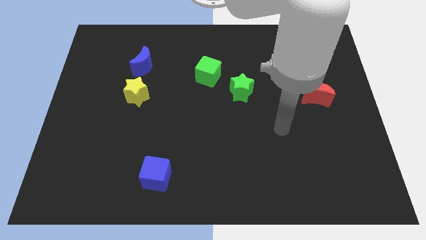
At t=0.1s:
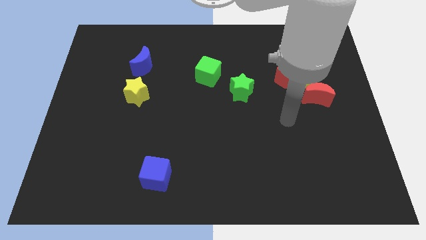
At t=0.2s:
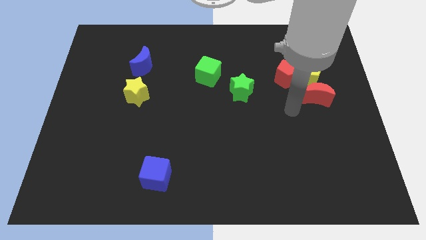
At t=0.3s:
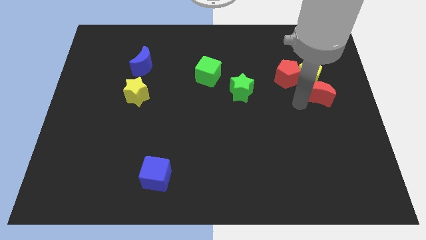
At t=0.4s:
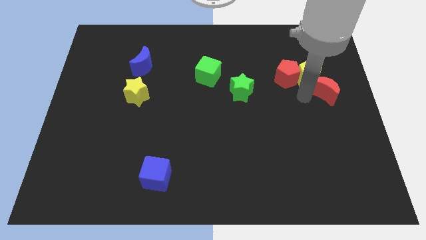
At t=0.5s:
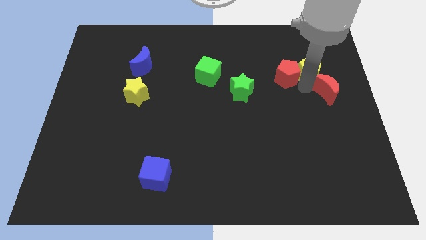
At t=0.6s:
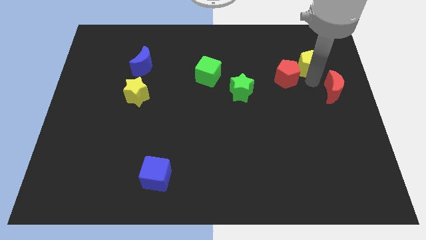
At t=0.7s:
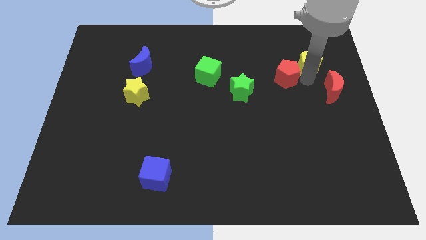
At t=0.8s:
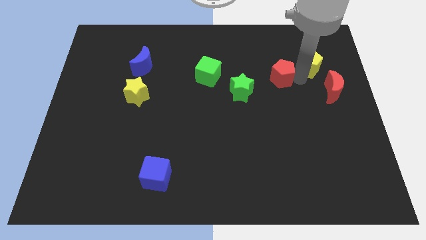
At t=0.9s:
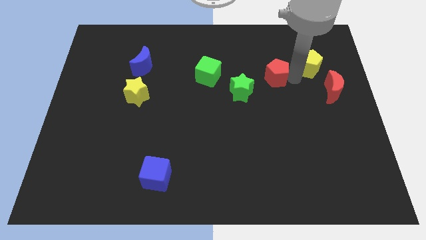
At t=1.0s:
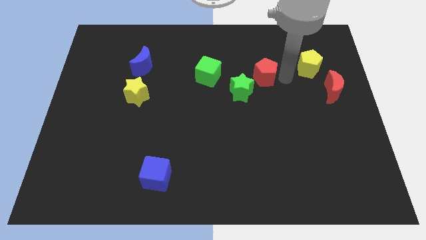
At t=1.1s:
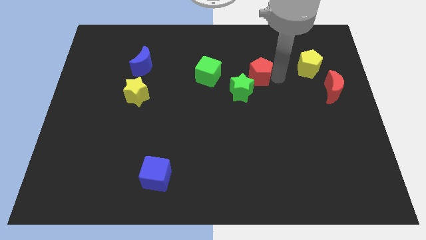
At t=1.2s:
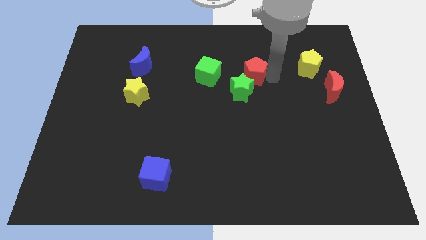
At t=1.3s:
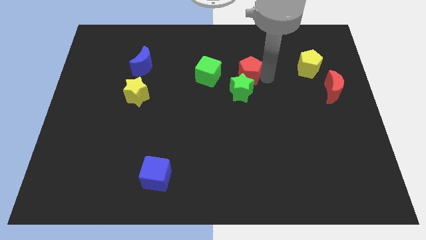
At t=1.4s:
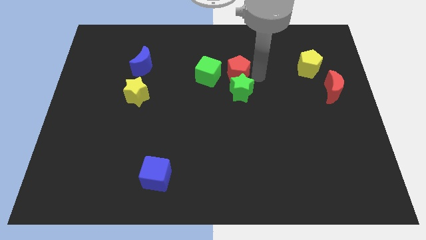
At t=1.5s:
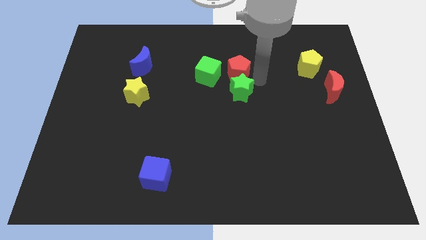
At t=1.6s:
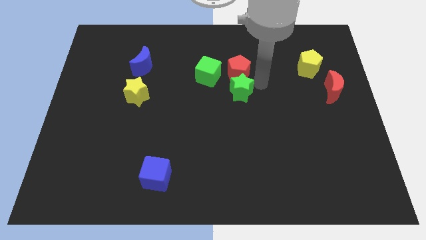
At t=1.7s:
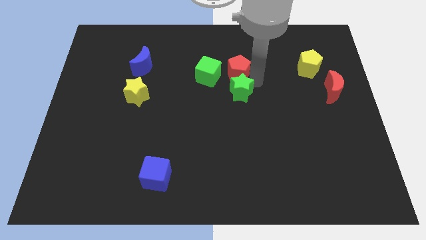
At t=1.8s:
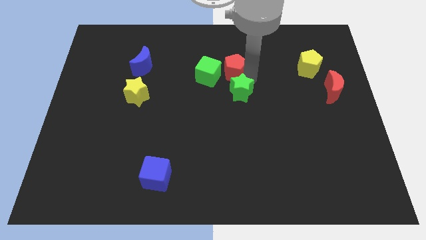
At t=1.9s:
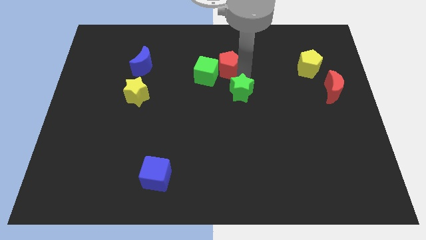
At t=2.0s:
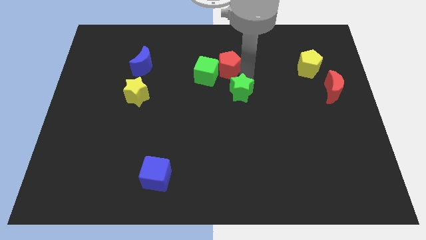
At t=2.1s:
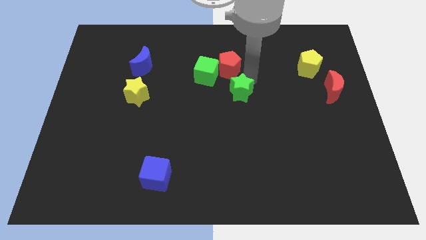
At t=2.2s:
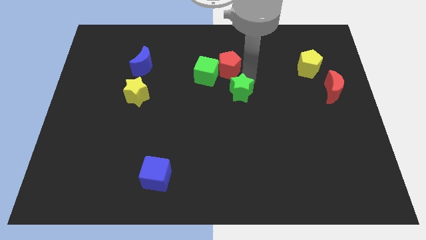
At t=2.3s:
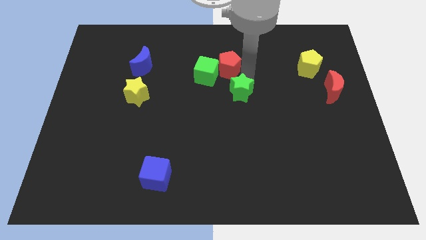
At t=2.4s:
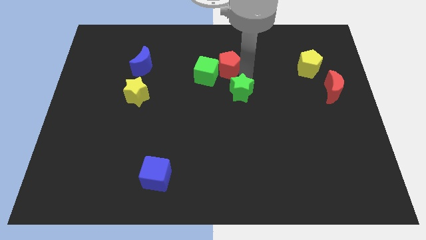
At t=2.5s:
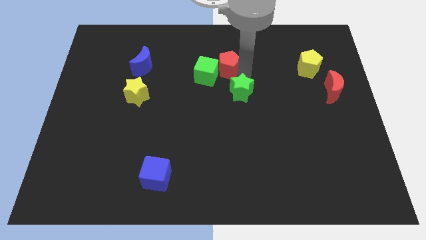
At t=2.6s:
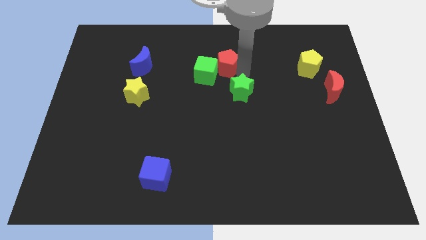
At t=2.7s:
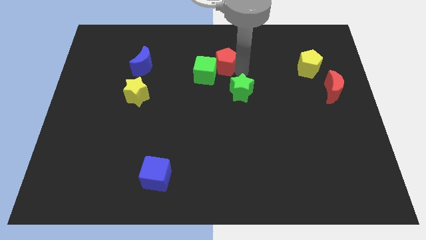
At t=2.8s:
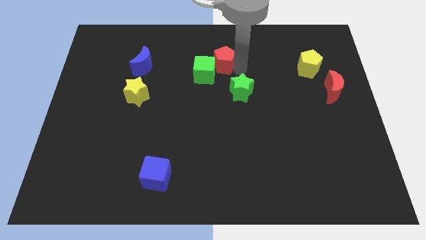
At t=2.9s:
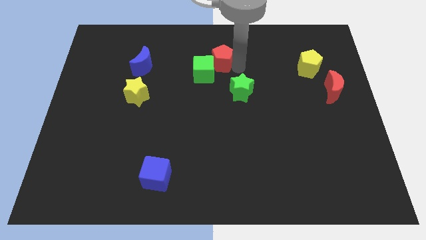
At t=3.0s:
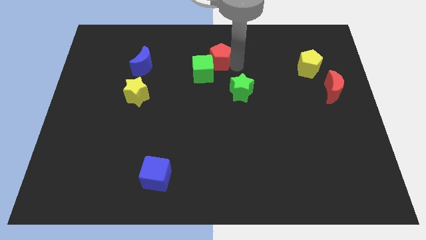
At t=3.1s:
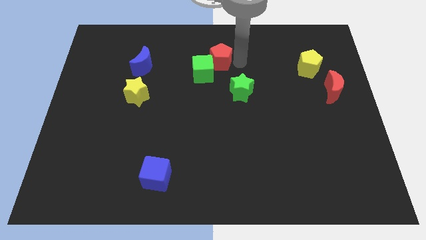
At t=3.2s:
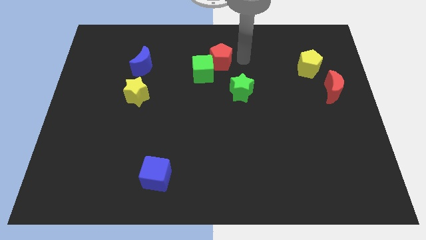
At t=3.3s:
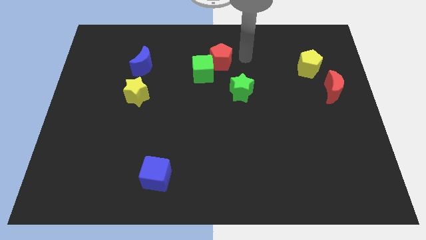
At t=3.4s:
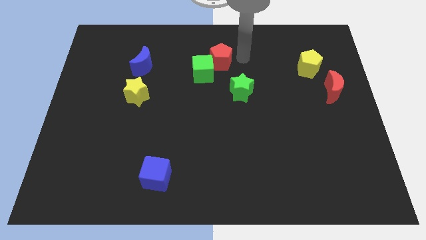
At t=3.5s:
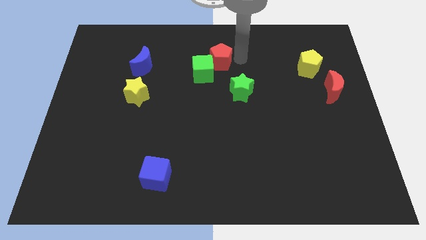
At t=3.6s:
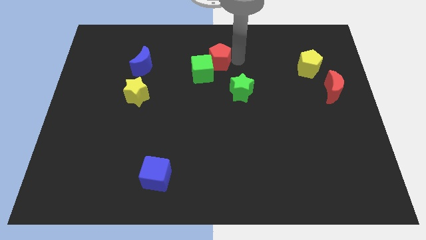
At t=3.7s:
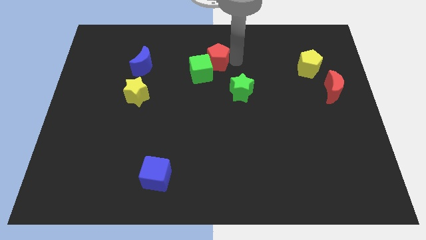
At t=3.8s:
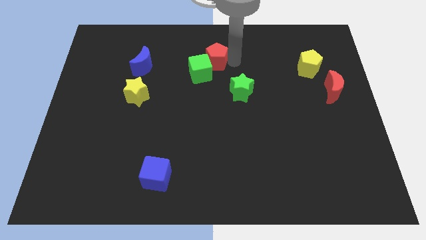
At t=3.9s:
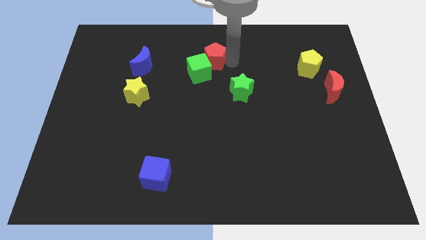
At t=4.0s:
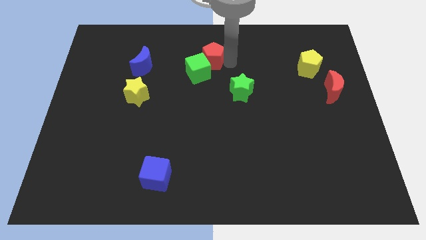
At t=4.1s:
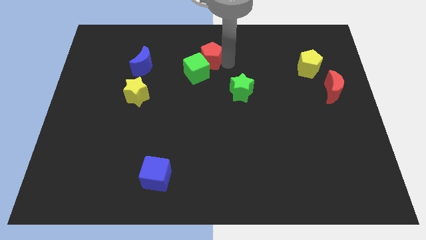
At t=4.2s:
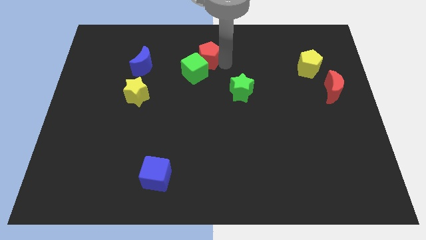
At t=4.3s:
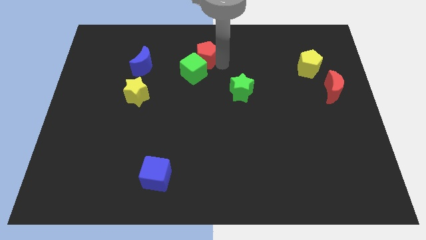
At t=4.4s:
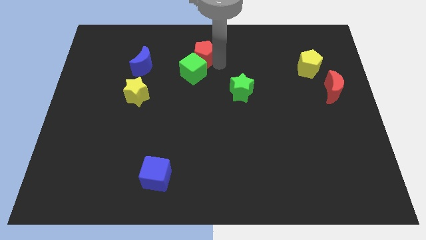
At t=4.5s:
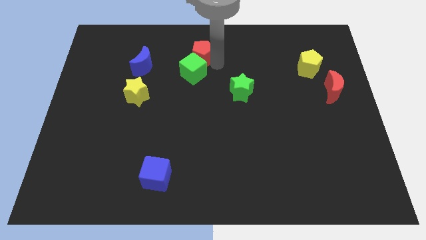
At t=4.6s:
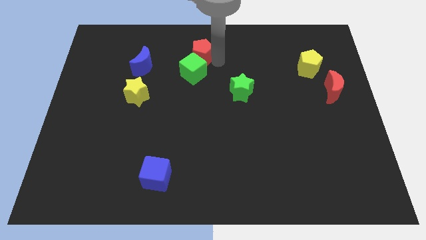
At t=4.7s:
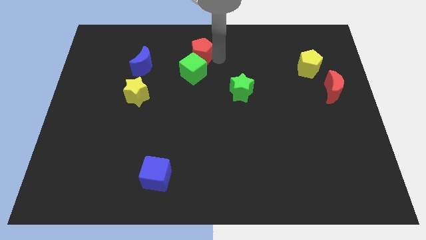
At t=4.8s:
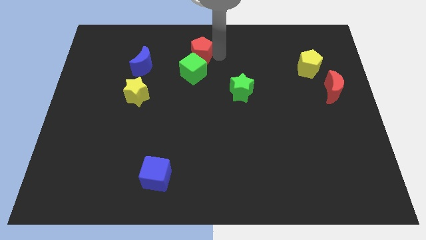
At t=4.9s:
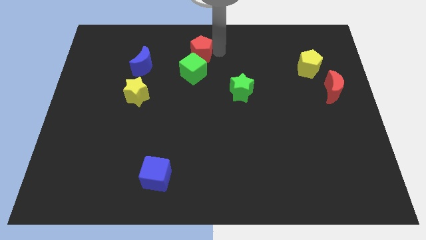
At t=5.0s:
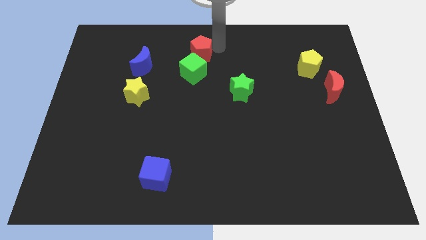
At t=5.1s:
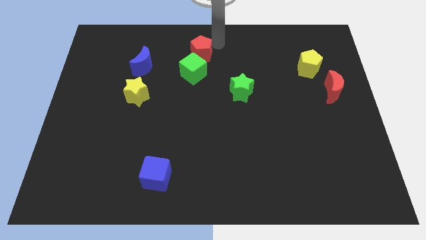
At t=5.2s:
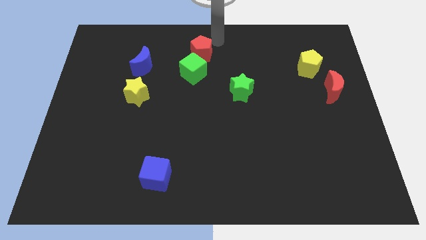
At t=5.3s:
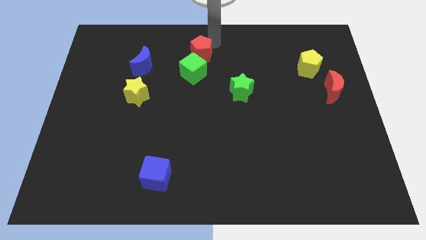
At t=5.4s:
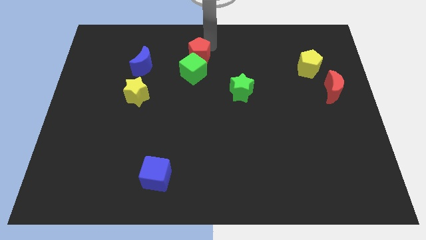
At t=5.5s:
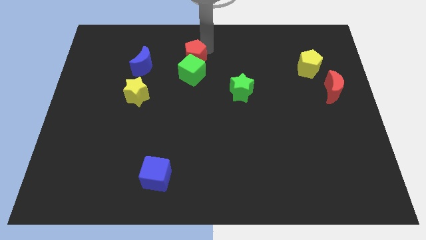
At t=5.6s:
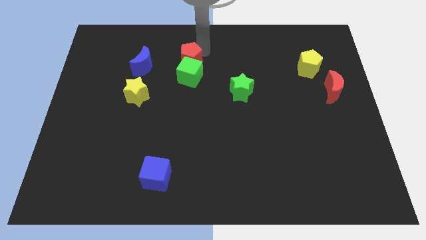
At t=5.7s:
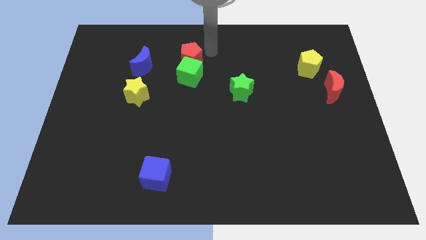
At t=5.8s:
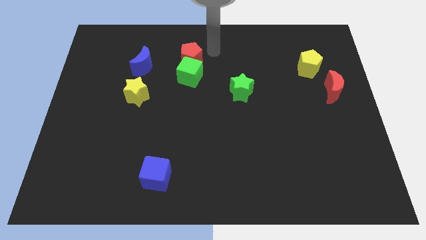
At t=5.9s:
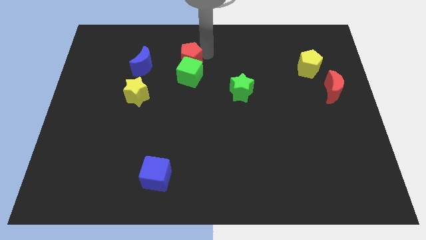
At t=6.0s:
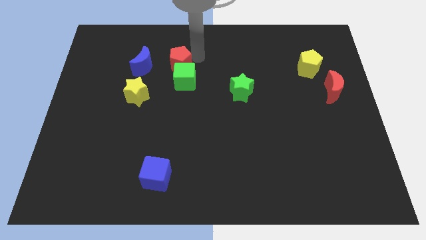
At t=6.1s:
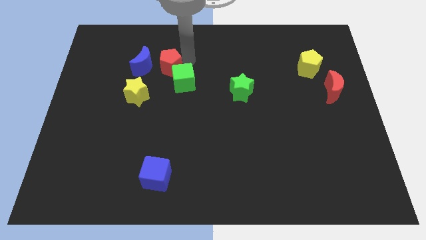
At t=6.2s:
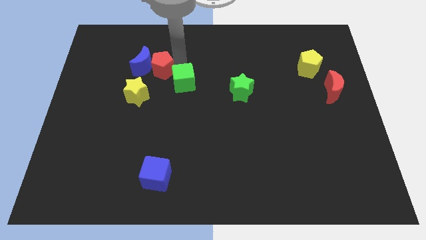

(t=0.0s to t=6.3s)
push the red pentagon to the left of the green cube

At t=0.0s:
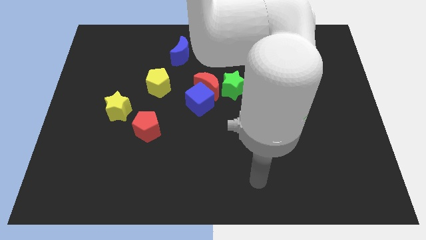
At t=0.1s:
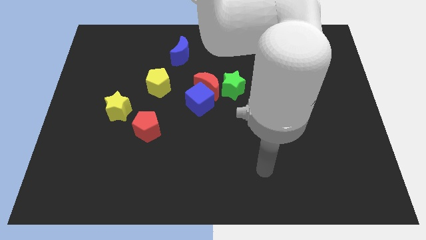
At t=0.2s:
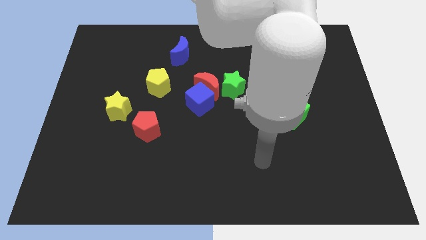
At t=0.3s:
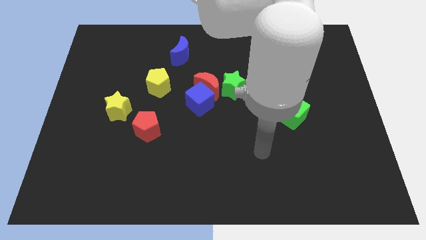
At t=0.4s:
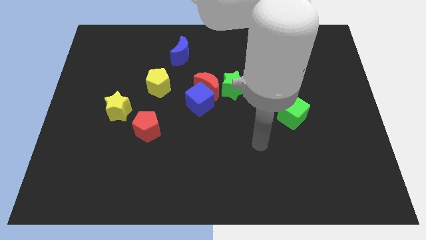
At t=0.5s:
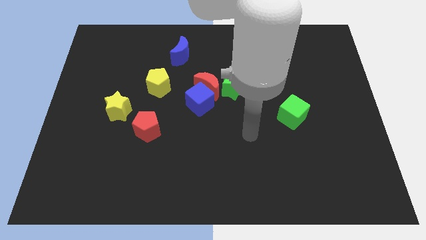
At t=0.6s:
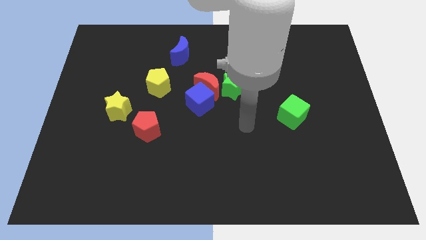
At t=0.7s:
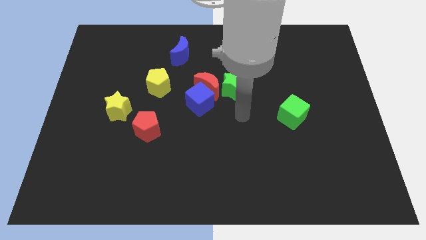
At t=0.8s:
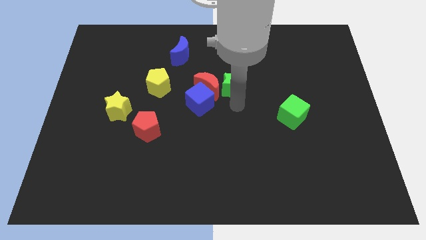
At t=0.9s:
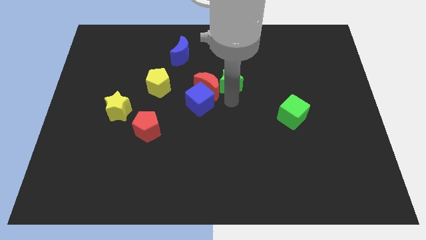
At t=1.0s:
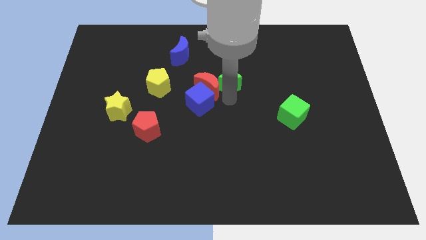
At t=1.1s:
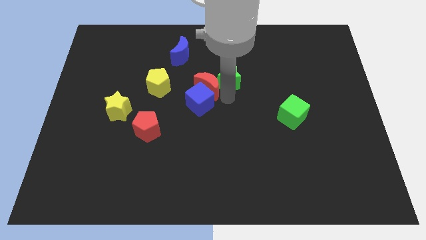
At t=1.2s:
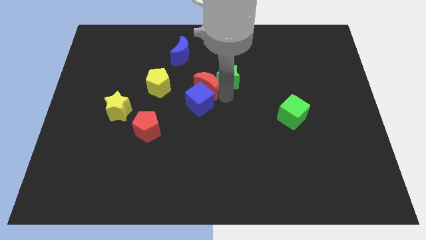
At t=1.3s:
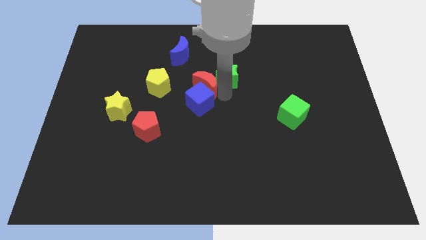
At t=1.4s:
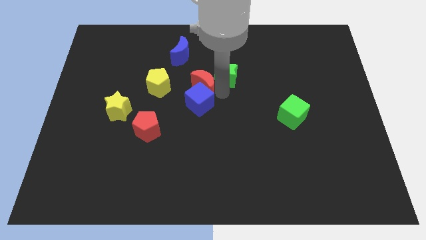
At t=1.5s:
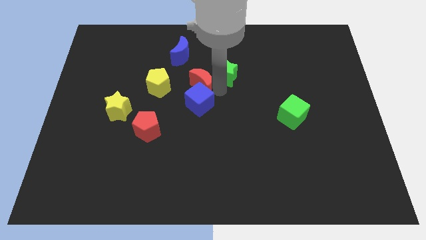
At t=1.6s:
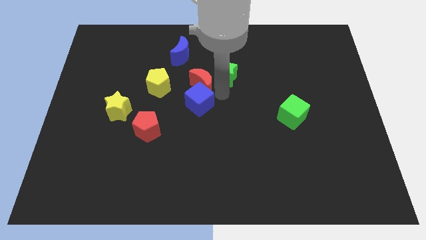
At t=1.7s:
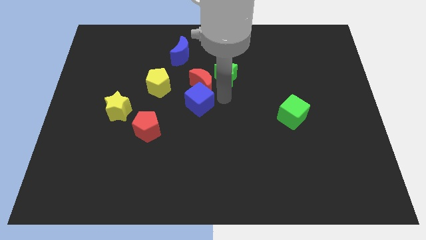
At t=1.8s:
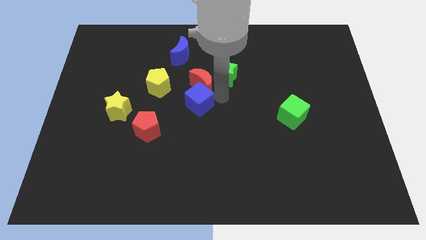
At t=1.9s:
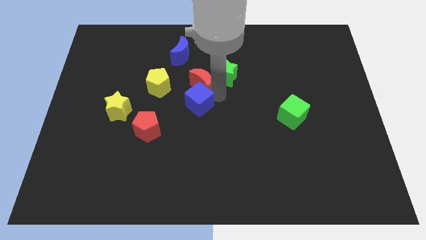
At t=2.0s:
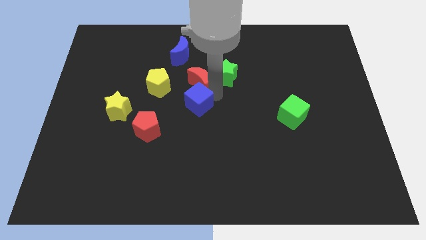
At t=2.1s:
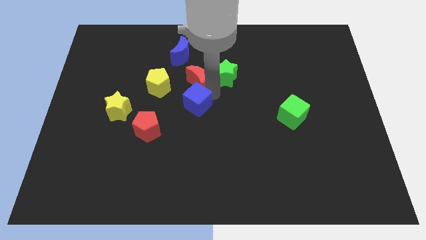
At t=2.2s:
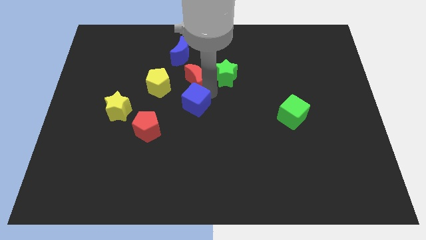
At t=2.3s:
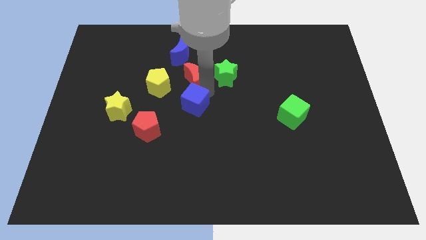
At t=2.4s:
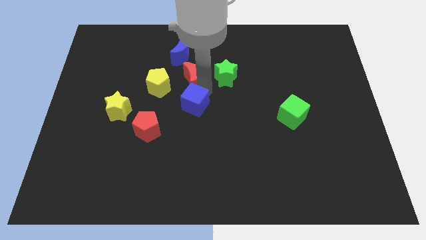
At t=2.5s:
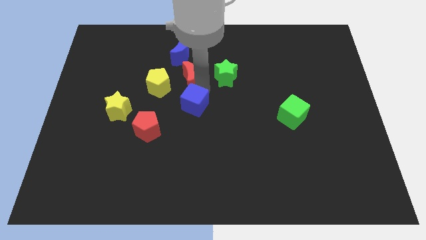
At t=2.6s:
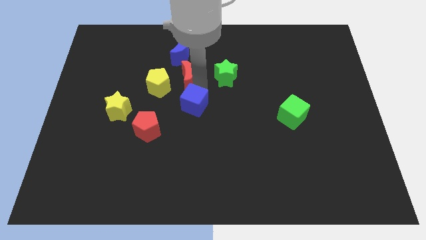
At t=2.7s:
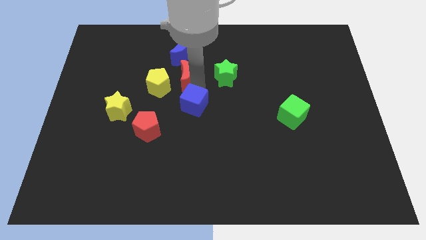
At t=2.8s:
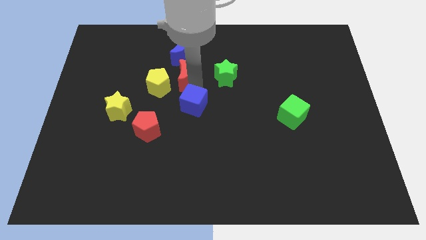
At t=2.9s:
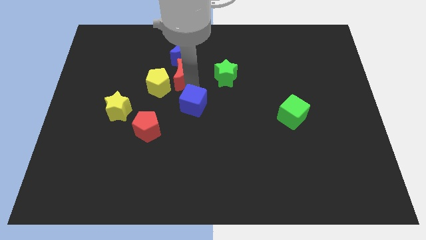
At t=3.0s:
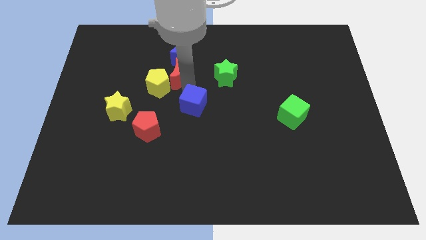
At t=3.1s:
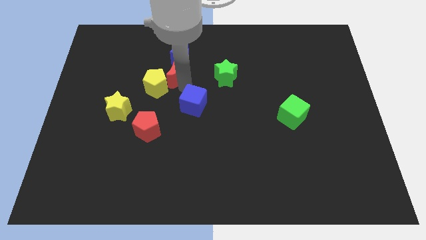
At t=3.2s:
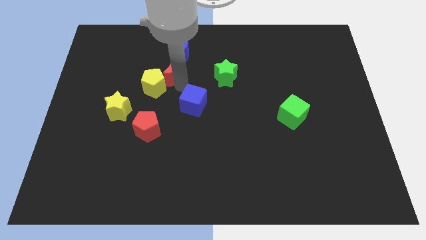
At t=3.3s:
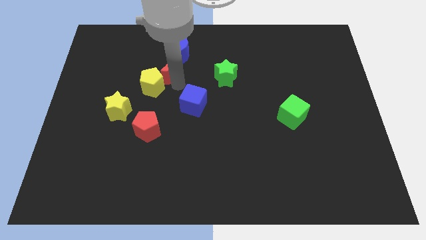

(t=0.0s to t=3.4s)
put the red moon to the top of the yellow pentagon
